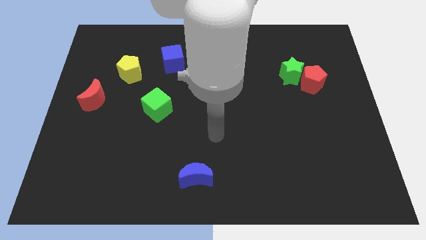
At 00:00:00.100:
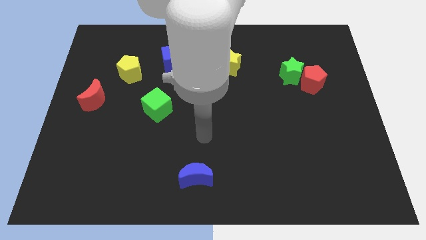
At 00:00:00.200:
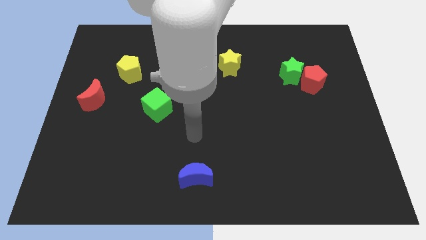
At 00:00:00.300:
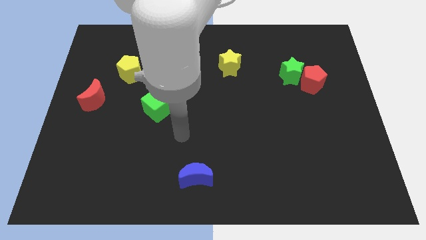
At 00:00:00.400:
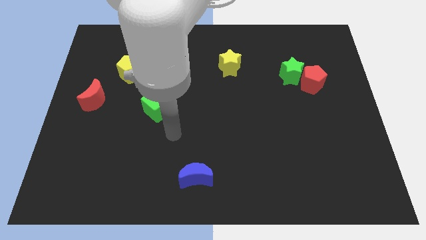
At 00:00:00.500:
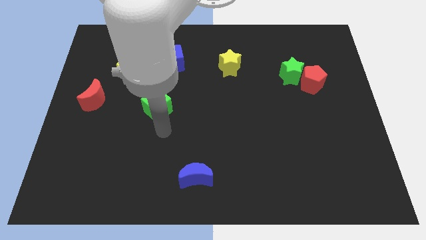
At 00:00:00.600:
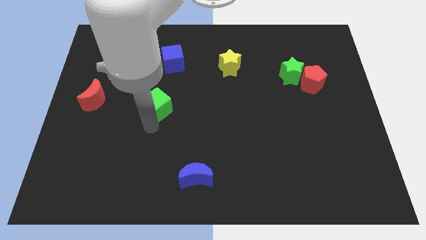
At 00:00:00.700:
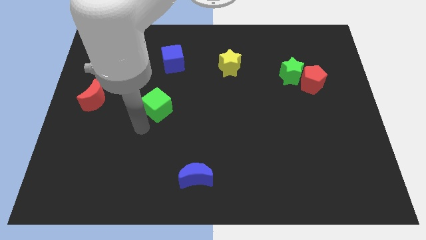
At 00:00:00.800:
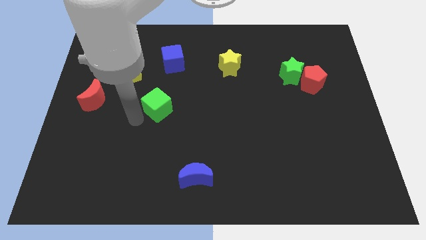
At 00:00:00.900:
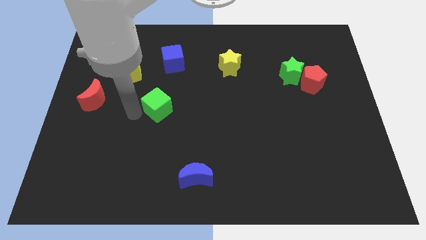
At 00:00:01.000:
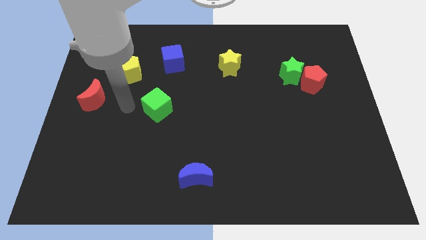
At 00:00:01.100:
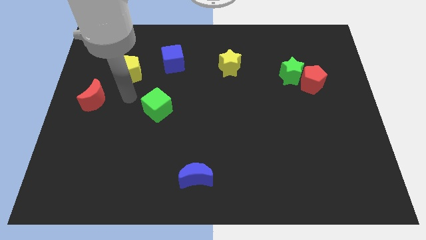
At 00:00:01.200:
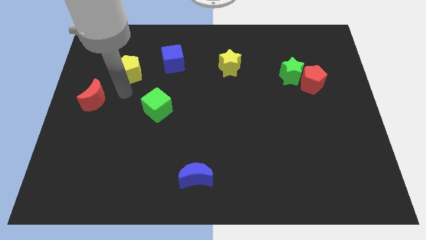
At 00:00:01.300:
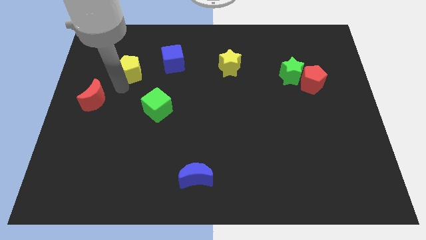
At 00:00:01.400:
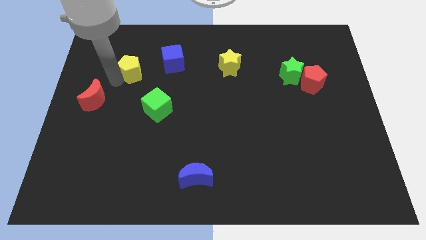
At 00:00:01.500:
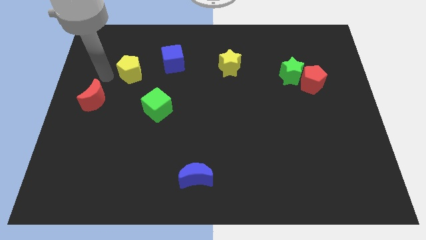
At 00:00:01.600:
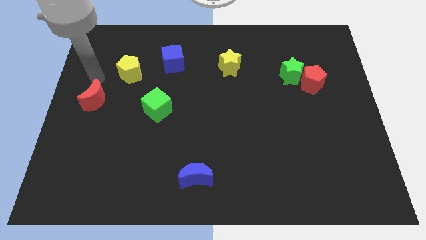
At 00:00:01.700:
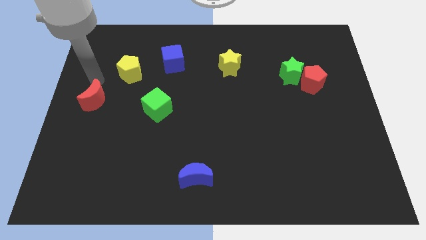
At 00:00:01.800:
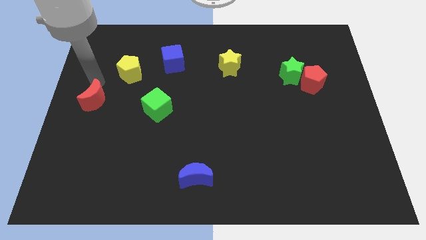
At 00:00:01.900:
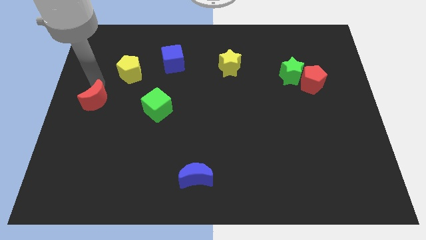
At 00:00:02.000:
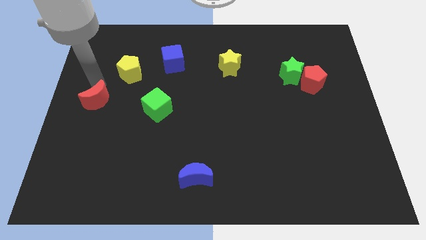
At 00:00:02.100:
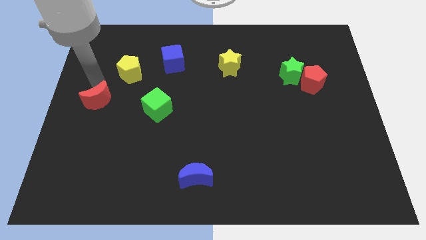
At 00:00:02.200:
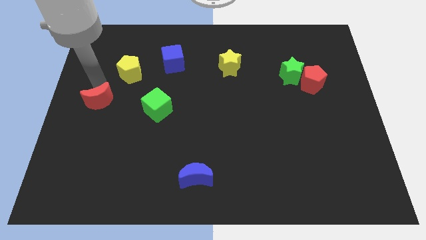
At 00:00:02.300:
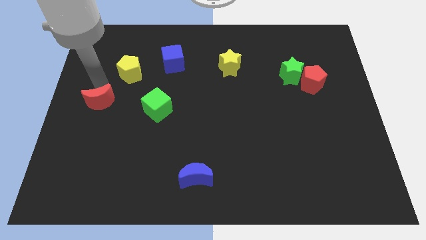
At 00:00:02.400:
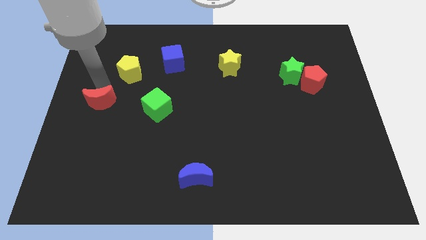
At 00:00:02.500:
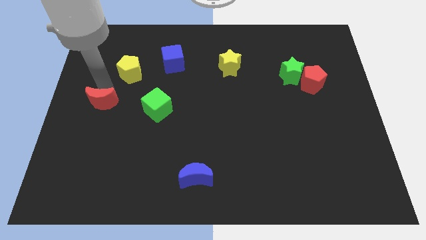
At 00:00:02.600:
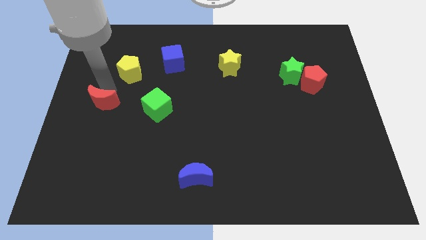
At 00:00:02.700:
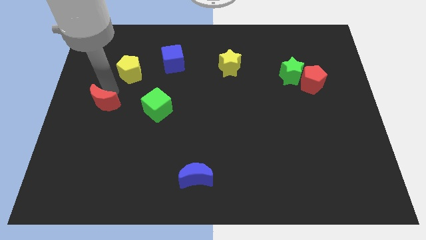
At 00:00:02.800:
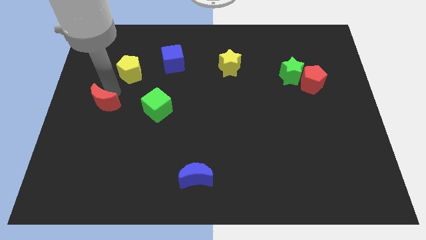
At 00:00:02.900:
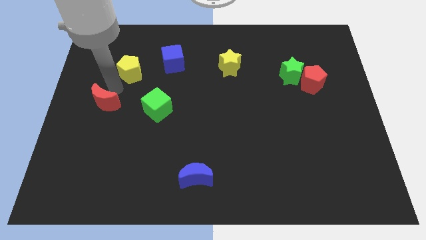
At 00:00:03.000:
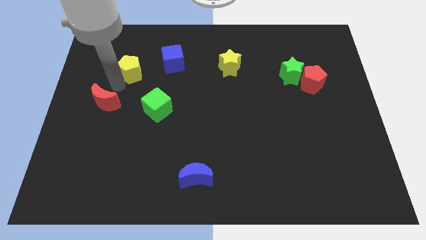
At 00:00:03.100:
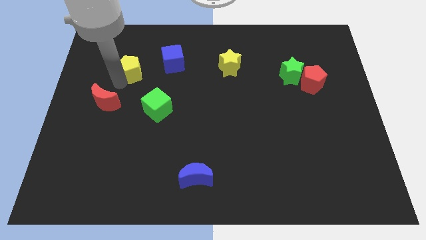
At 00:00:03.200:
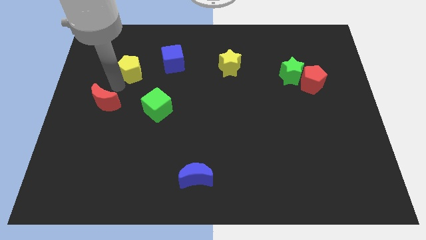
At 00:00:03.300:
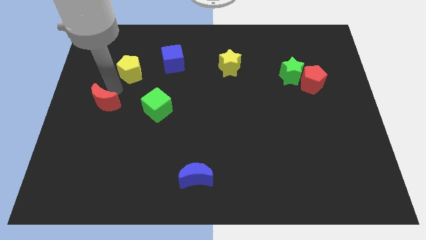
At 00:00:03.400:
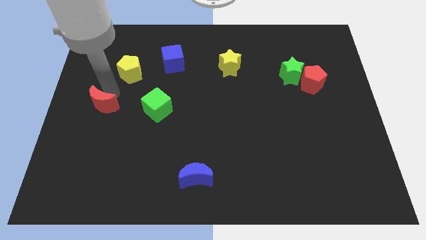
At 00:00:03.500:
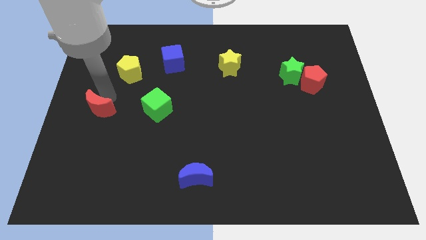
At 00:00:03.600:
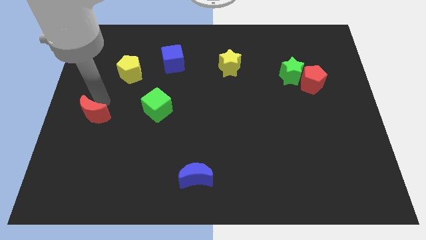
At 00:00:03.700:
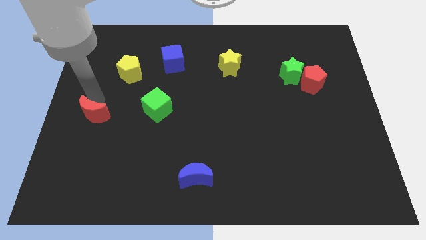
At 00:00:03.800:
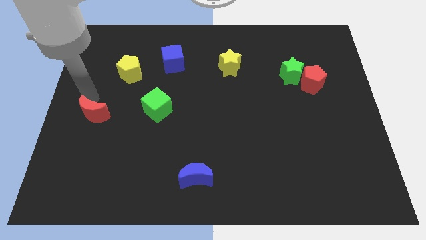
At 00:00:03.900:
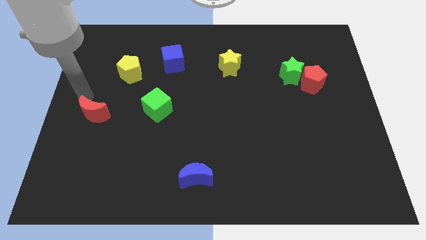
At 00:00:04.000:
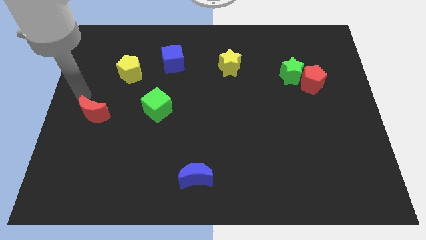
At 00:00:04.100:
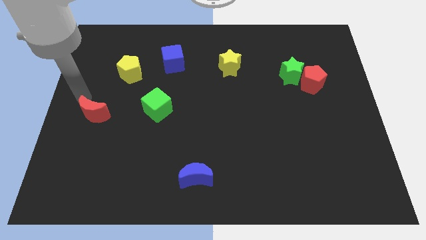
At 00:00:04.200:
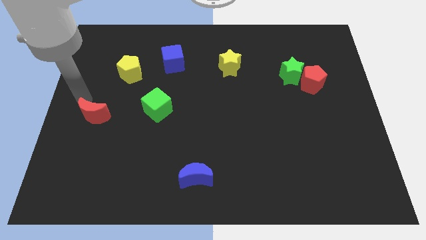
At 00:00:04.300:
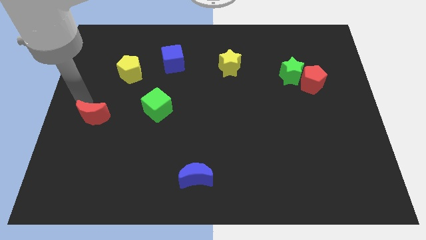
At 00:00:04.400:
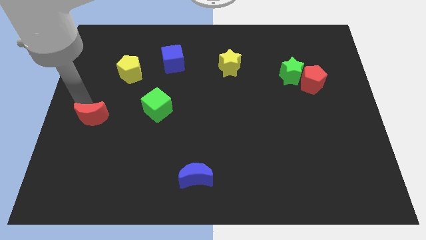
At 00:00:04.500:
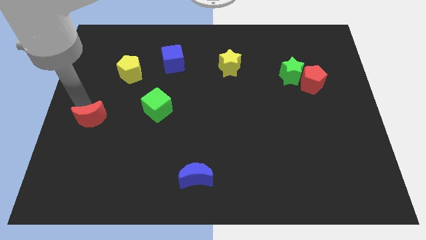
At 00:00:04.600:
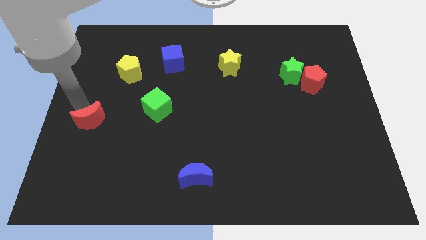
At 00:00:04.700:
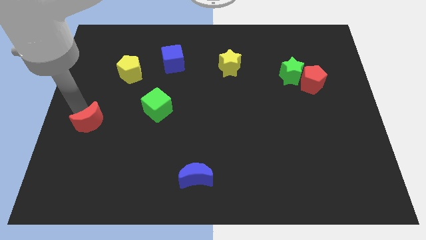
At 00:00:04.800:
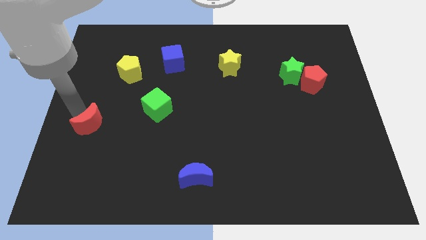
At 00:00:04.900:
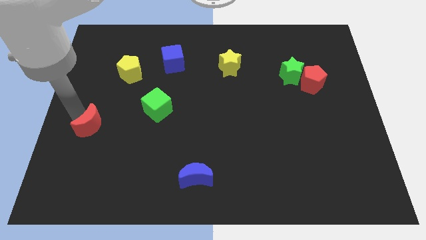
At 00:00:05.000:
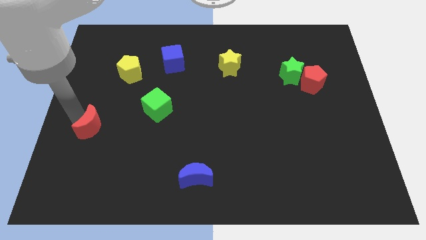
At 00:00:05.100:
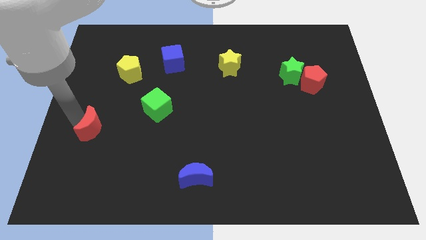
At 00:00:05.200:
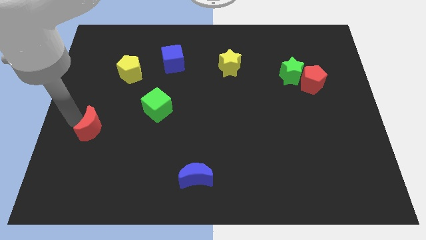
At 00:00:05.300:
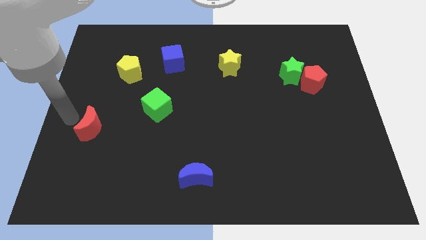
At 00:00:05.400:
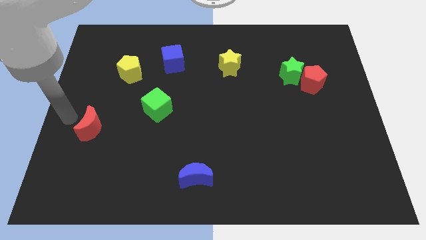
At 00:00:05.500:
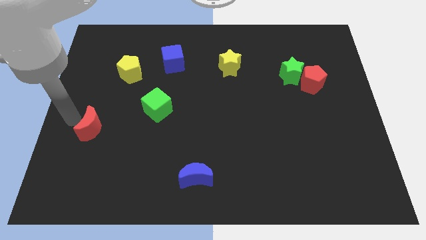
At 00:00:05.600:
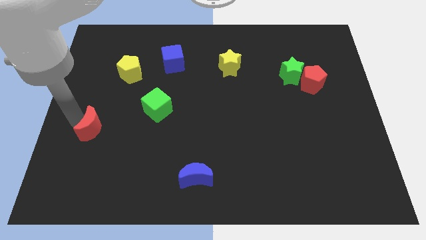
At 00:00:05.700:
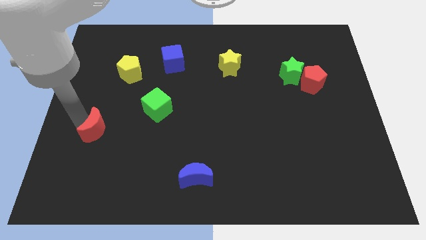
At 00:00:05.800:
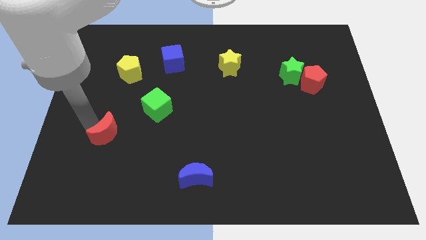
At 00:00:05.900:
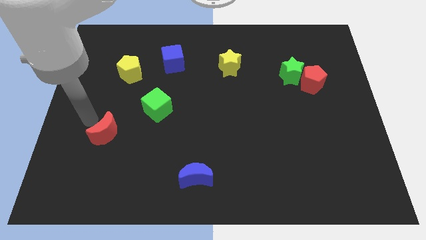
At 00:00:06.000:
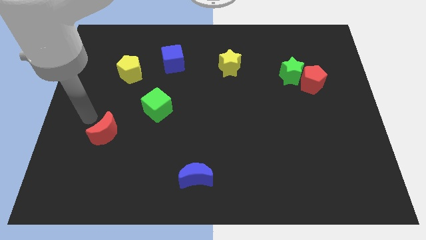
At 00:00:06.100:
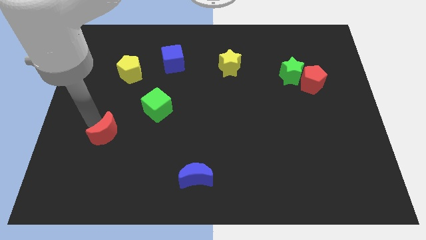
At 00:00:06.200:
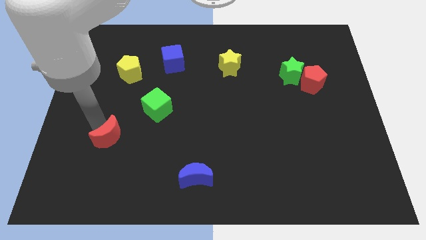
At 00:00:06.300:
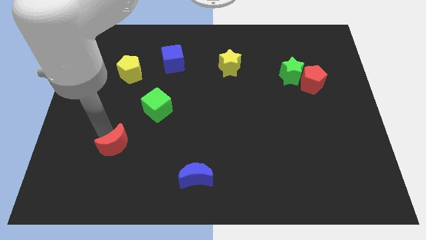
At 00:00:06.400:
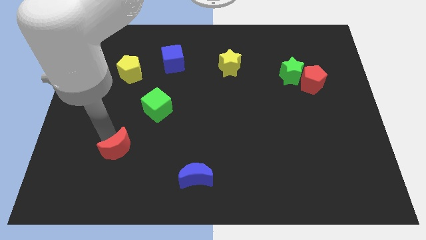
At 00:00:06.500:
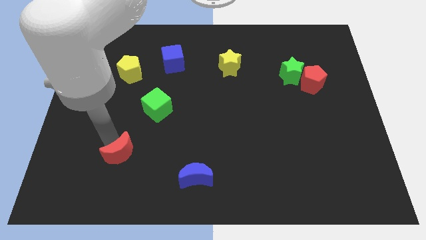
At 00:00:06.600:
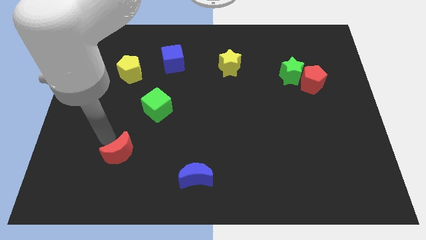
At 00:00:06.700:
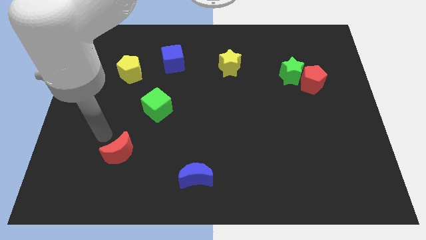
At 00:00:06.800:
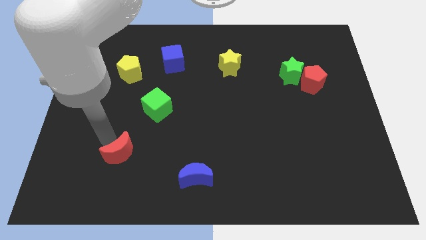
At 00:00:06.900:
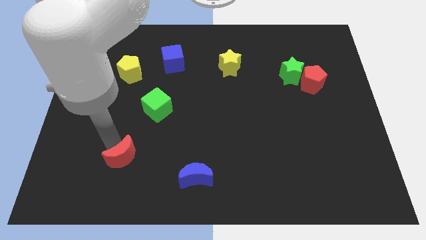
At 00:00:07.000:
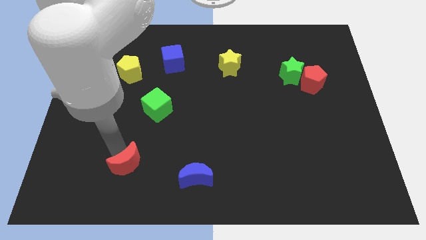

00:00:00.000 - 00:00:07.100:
slide the red moon to the left side of the blue moon
